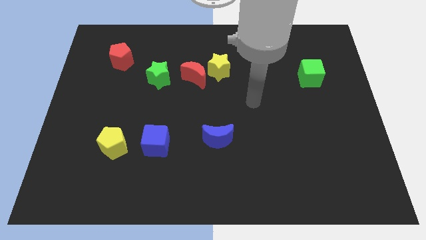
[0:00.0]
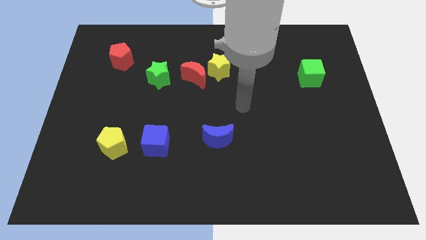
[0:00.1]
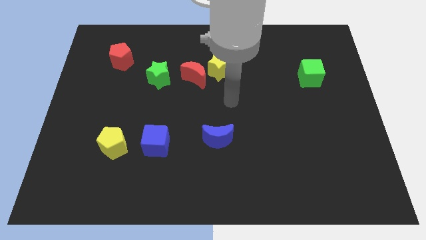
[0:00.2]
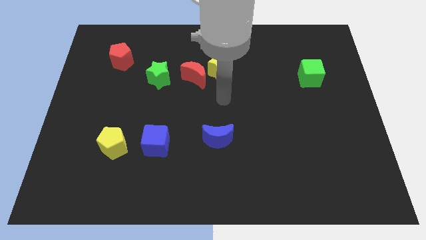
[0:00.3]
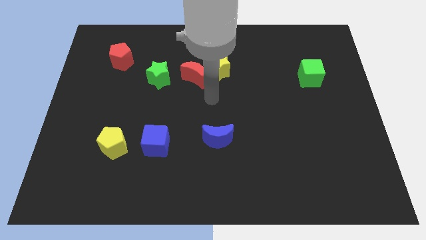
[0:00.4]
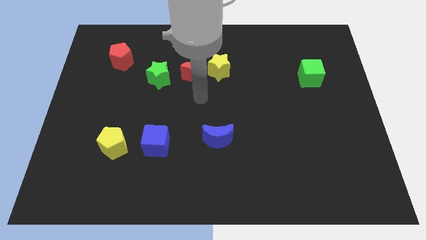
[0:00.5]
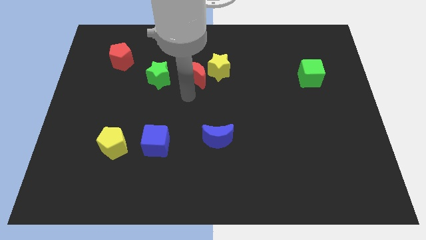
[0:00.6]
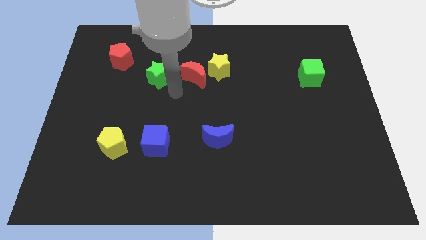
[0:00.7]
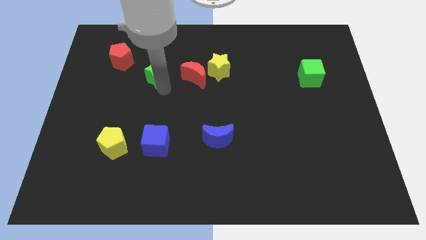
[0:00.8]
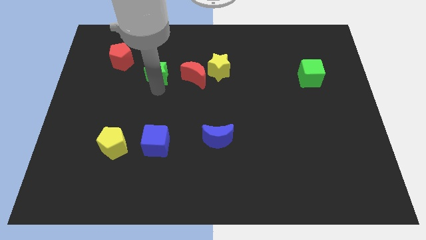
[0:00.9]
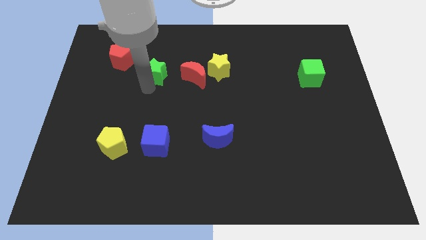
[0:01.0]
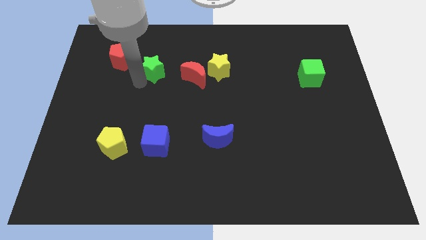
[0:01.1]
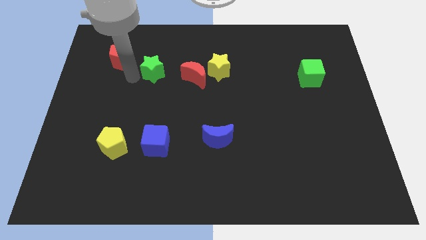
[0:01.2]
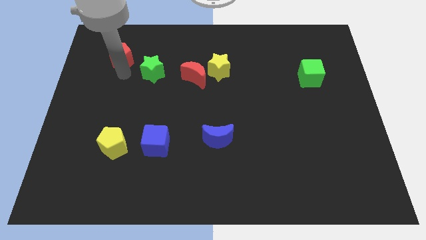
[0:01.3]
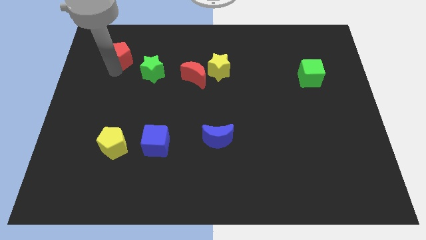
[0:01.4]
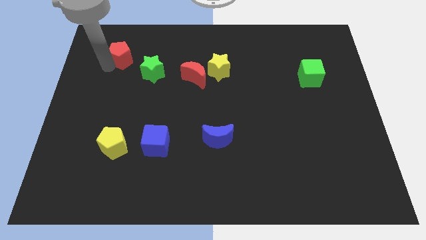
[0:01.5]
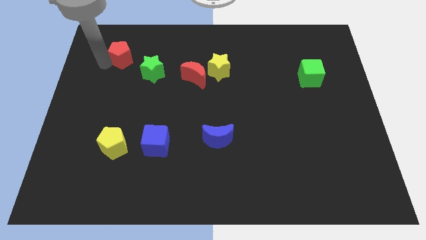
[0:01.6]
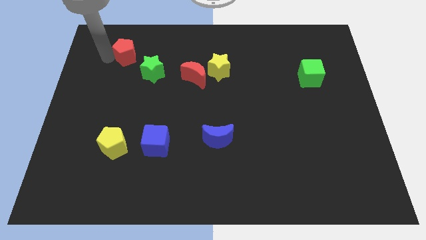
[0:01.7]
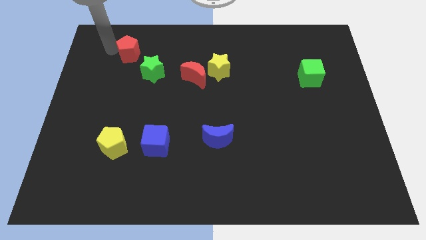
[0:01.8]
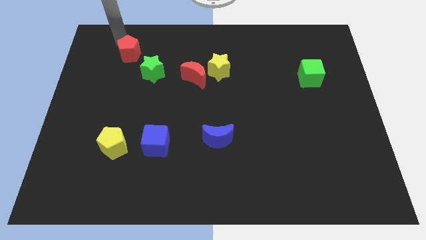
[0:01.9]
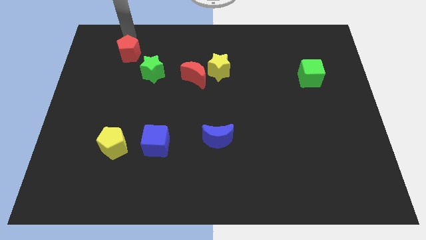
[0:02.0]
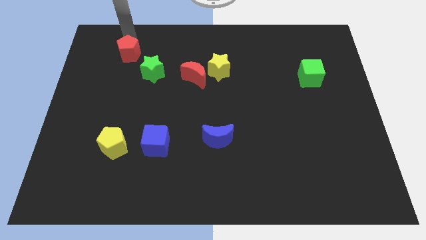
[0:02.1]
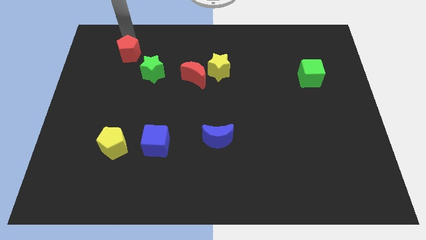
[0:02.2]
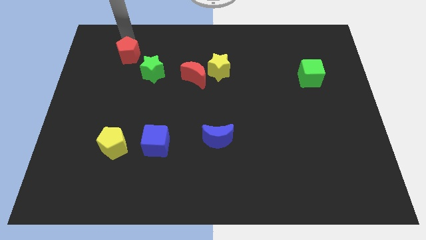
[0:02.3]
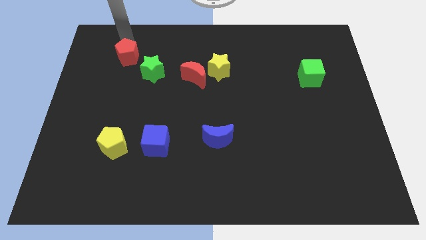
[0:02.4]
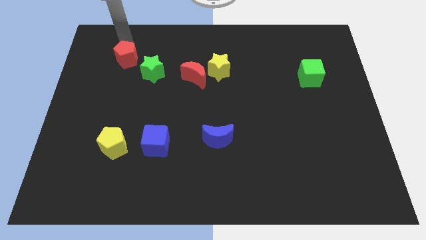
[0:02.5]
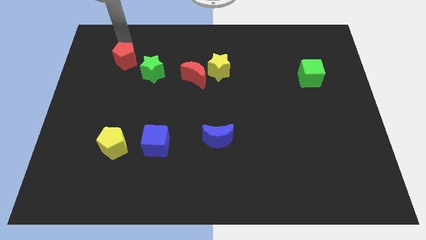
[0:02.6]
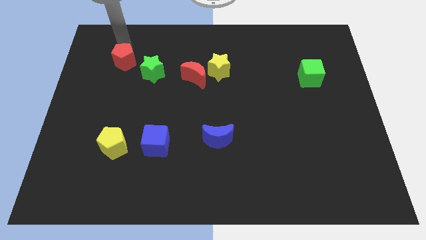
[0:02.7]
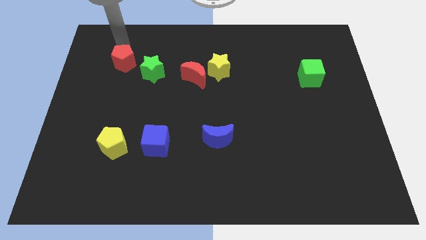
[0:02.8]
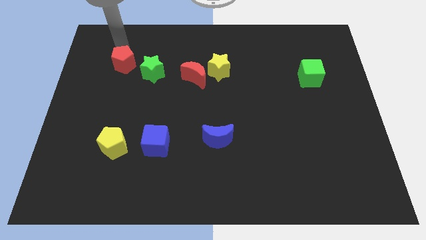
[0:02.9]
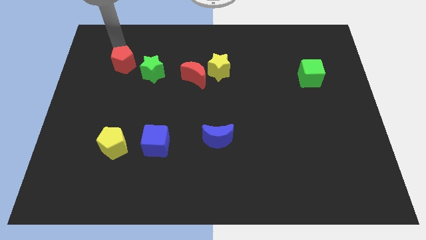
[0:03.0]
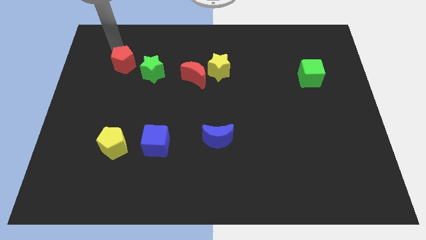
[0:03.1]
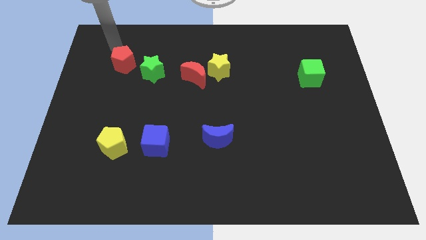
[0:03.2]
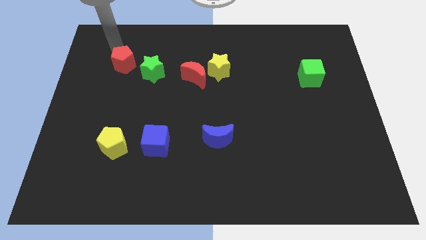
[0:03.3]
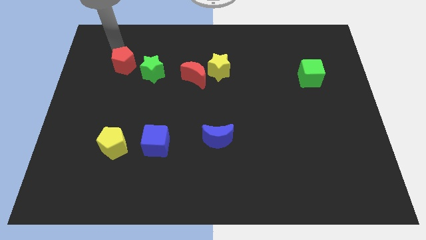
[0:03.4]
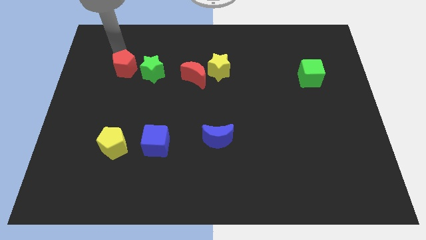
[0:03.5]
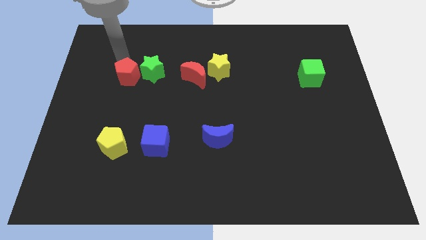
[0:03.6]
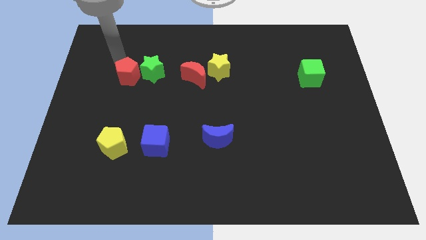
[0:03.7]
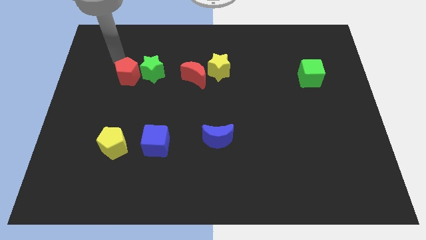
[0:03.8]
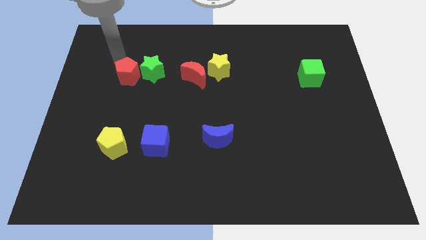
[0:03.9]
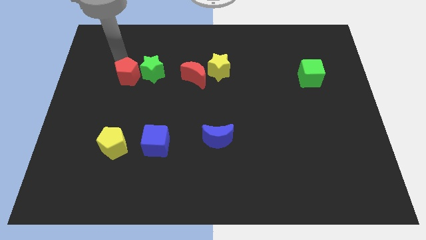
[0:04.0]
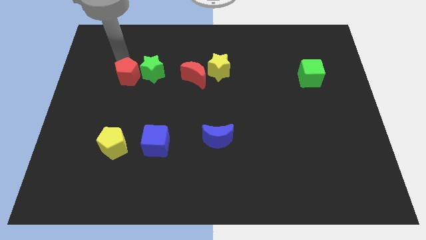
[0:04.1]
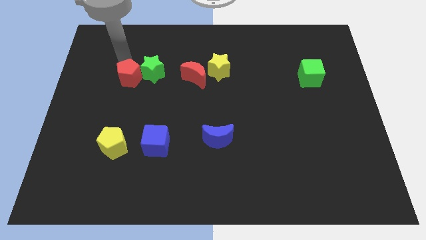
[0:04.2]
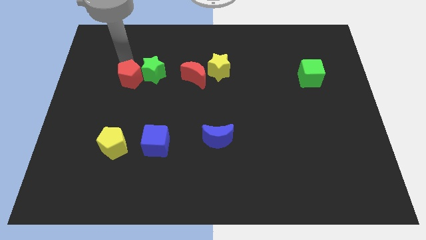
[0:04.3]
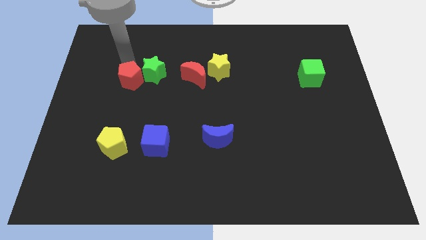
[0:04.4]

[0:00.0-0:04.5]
slightly push the red pentagon down and then to the right

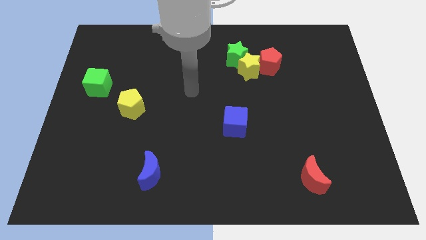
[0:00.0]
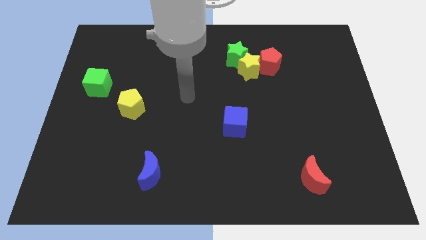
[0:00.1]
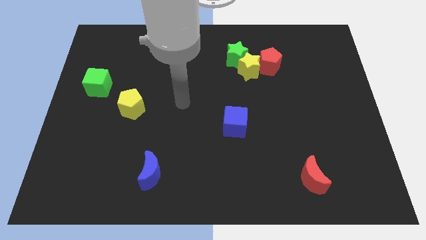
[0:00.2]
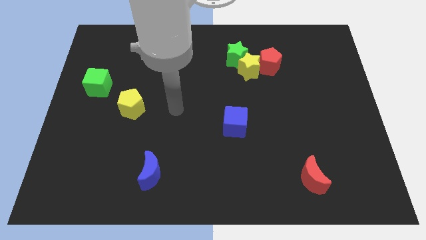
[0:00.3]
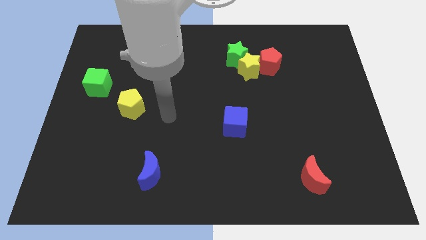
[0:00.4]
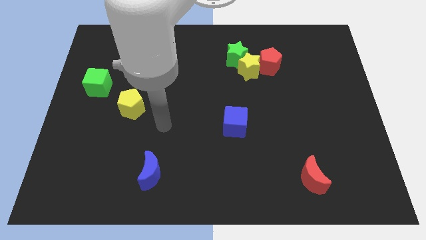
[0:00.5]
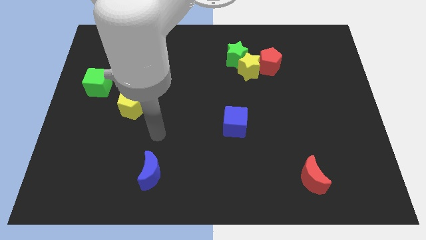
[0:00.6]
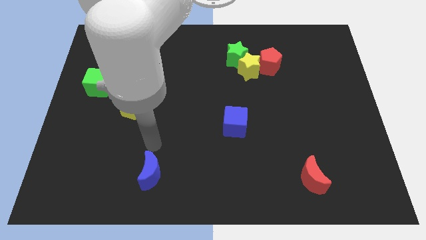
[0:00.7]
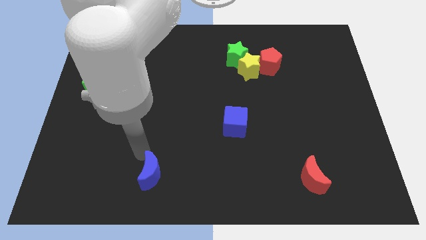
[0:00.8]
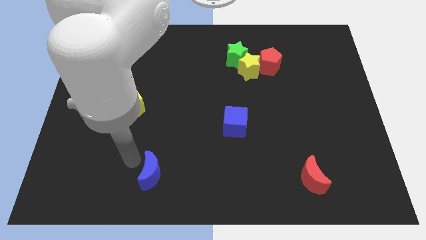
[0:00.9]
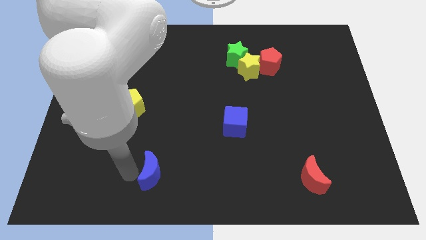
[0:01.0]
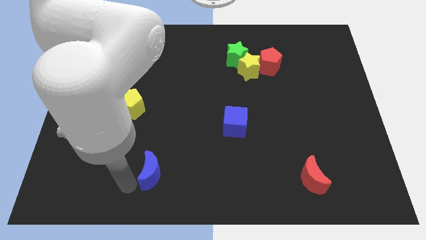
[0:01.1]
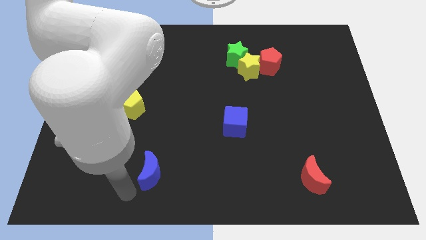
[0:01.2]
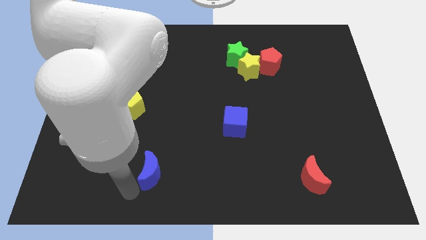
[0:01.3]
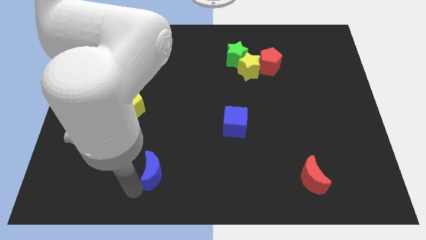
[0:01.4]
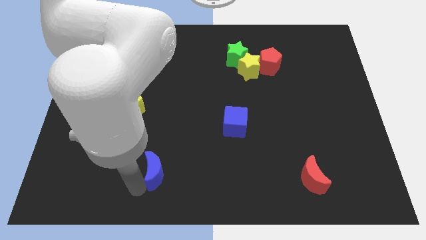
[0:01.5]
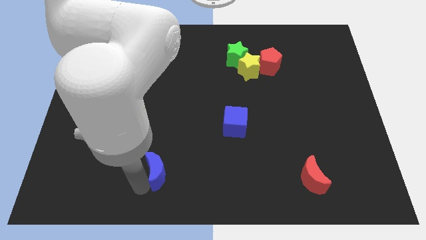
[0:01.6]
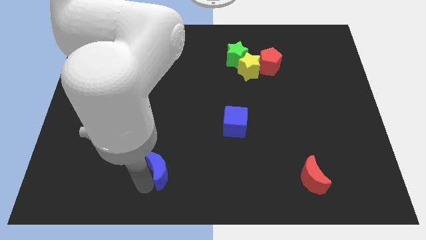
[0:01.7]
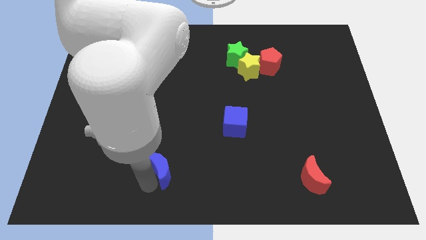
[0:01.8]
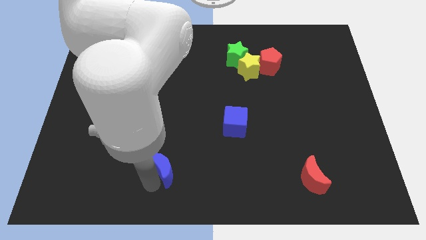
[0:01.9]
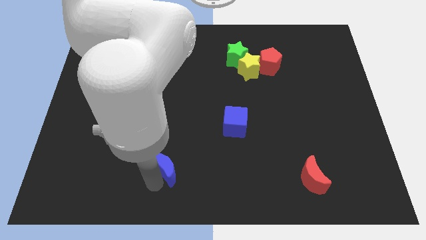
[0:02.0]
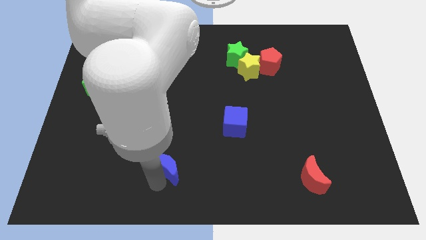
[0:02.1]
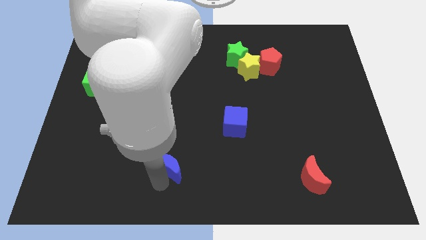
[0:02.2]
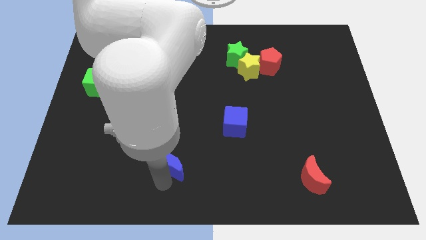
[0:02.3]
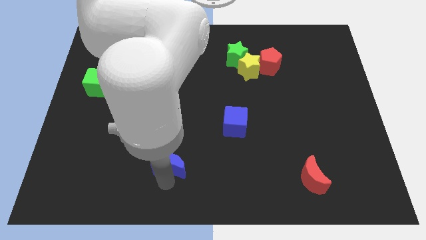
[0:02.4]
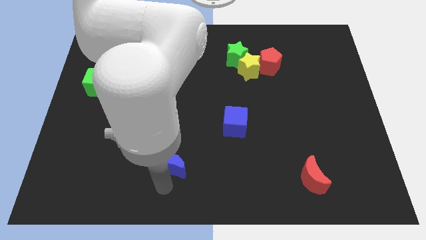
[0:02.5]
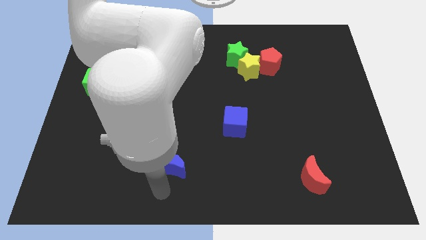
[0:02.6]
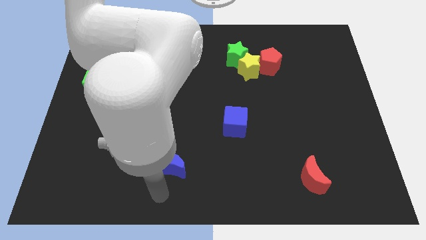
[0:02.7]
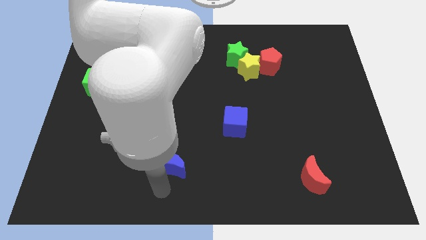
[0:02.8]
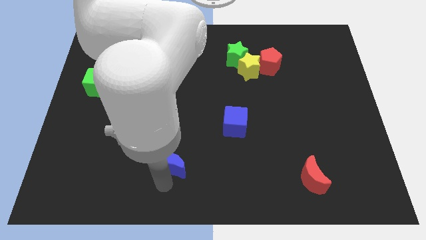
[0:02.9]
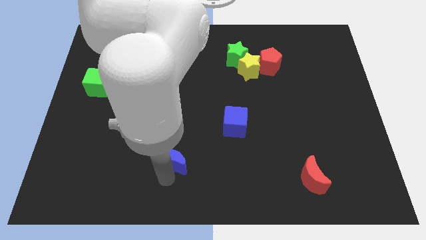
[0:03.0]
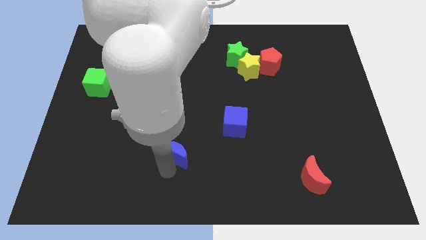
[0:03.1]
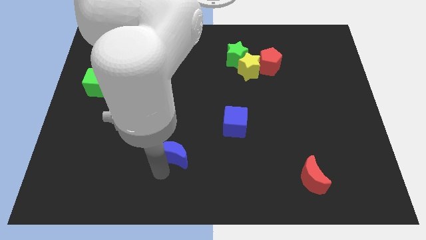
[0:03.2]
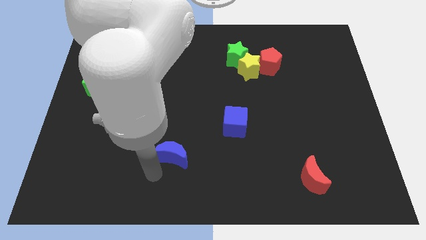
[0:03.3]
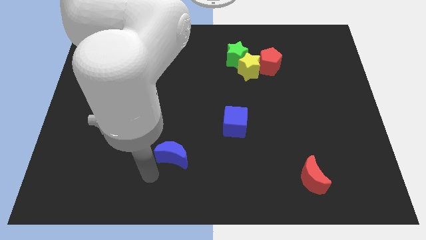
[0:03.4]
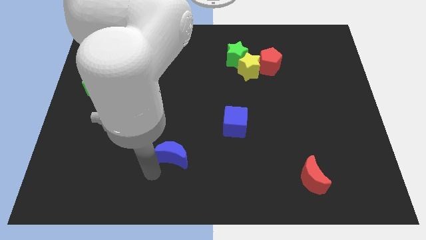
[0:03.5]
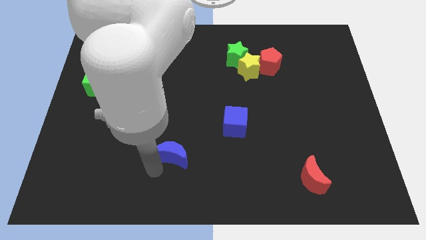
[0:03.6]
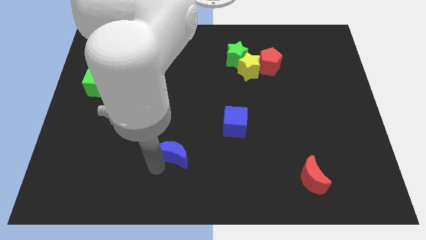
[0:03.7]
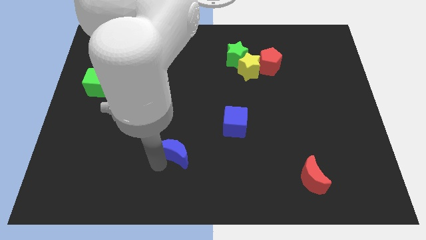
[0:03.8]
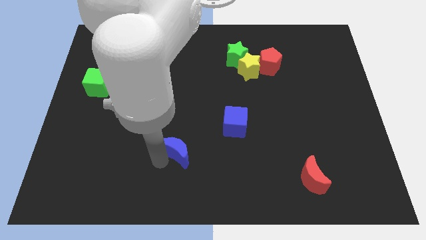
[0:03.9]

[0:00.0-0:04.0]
slightly slide the blue moon upwards and right diagonally
